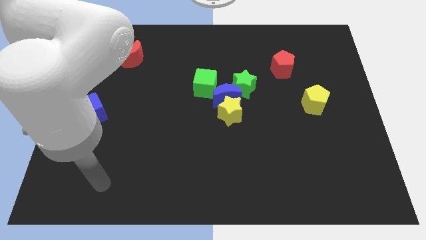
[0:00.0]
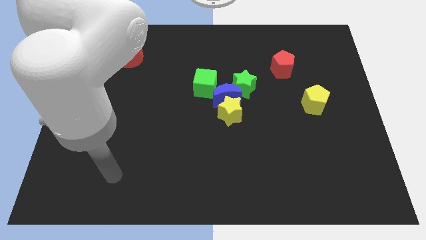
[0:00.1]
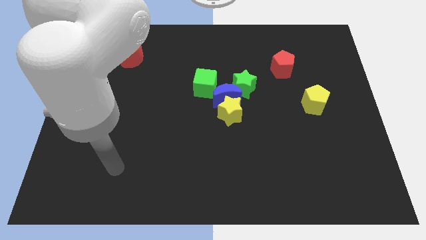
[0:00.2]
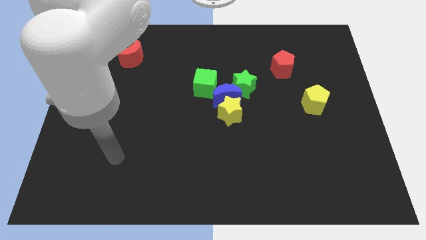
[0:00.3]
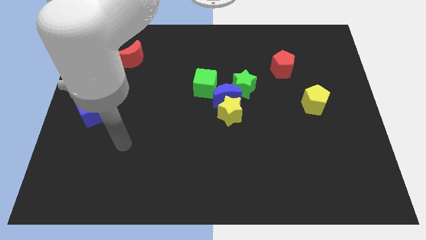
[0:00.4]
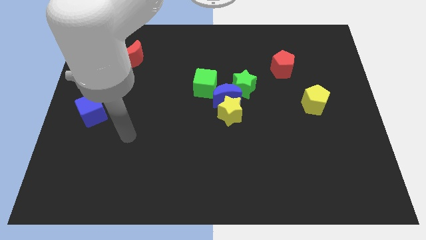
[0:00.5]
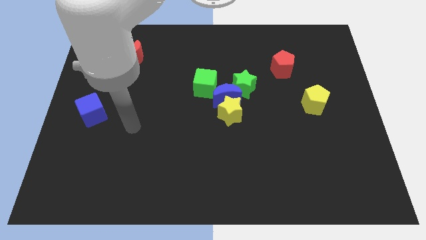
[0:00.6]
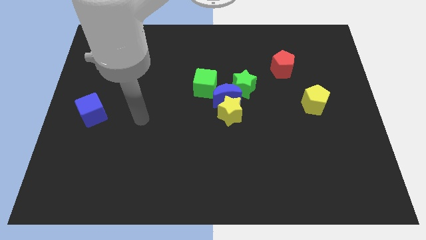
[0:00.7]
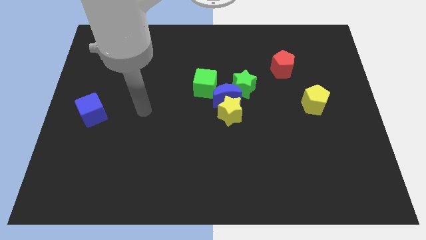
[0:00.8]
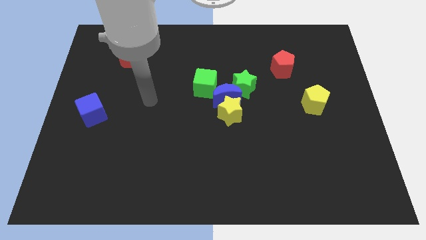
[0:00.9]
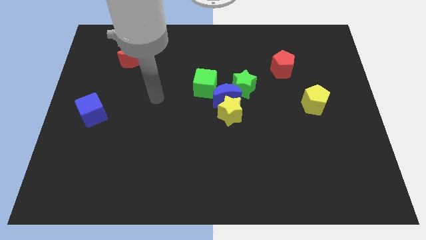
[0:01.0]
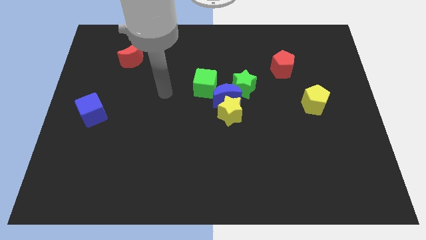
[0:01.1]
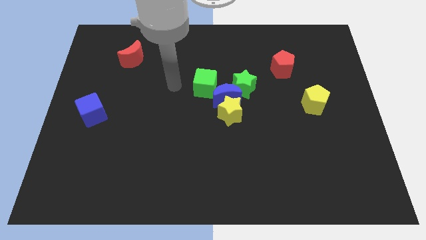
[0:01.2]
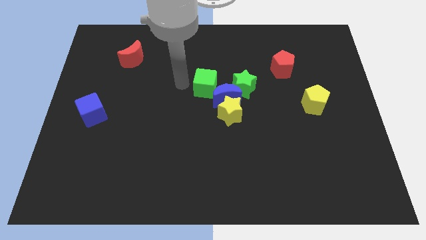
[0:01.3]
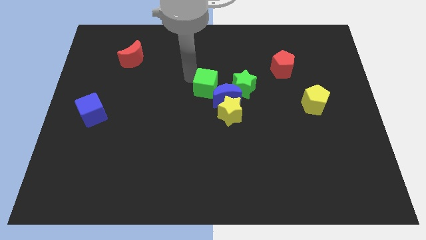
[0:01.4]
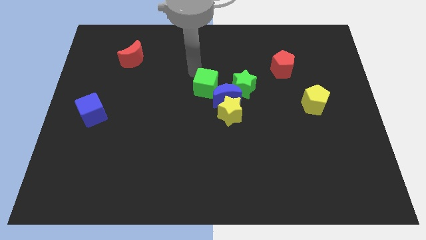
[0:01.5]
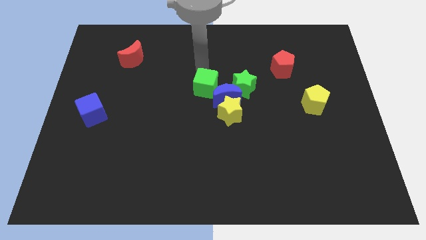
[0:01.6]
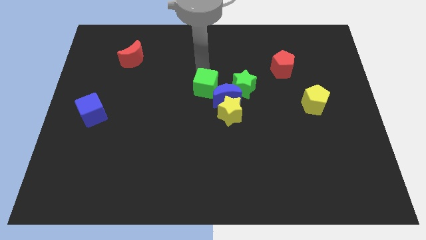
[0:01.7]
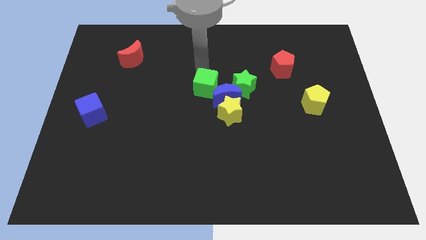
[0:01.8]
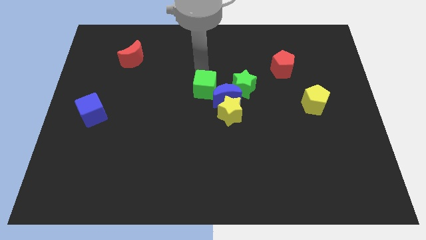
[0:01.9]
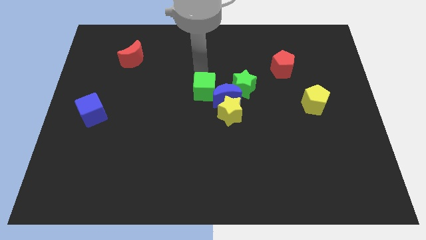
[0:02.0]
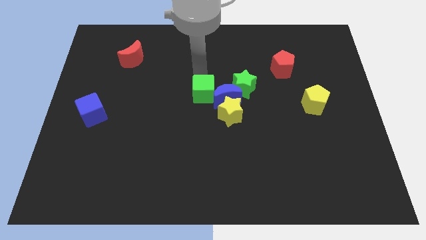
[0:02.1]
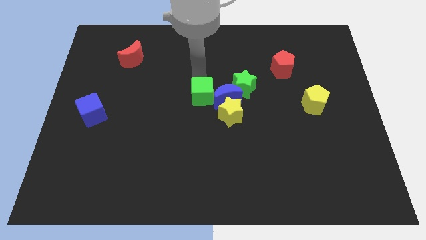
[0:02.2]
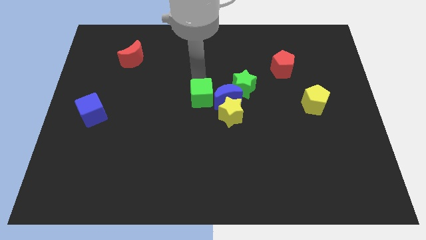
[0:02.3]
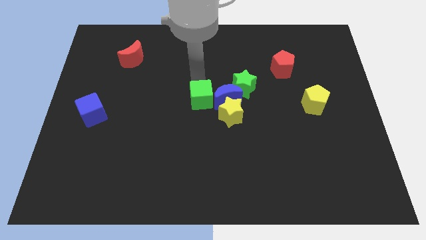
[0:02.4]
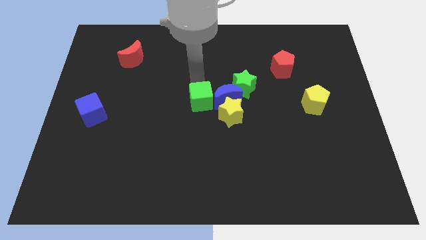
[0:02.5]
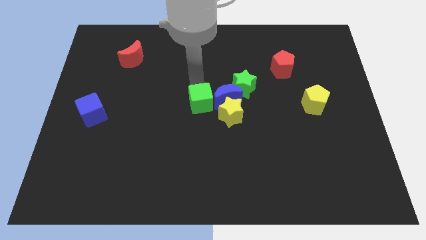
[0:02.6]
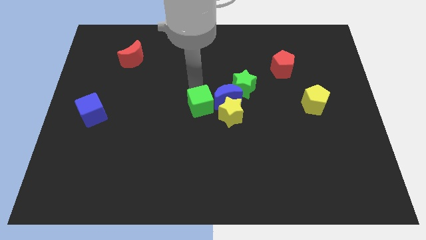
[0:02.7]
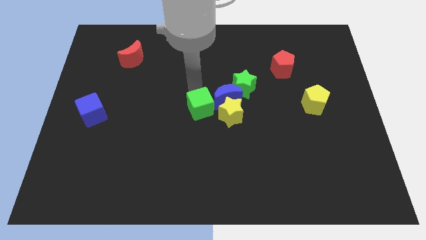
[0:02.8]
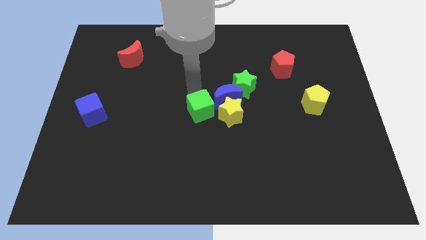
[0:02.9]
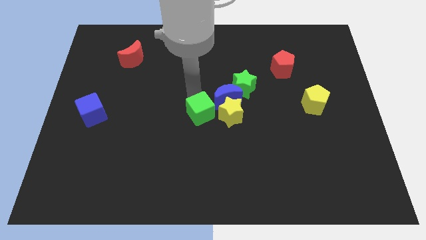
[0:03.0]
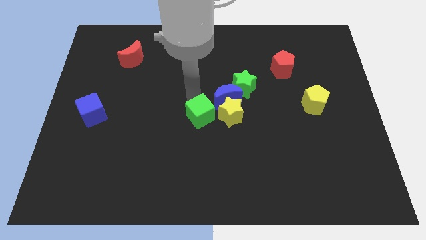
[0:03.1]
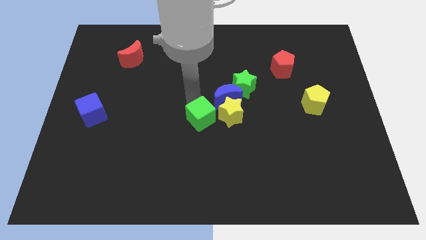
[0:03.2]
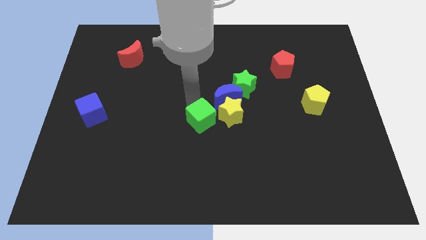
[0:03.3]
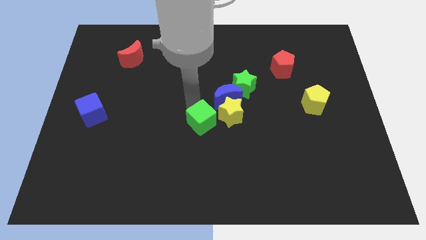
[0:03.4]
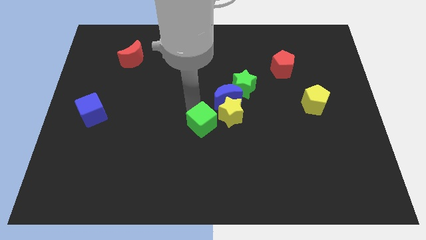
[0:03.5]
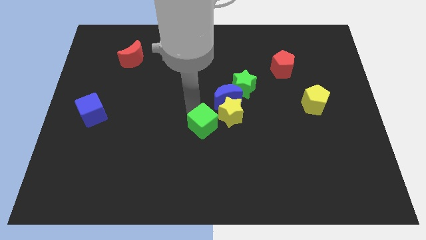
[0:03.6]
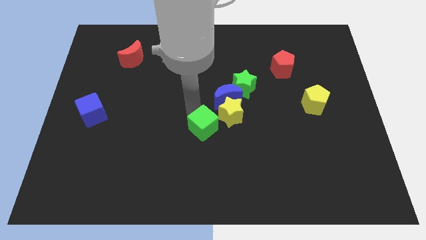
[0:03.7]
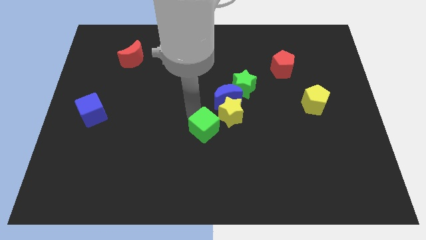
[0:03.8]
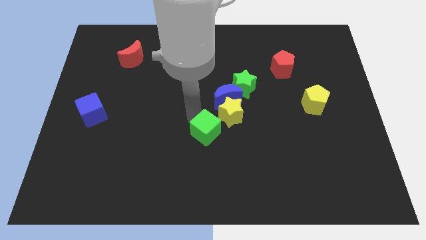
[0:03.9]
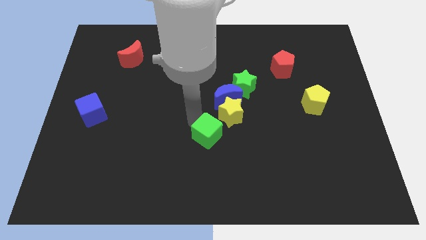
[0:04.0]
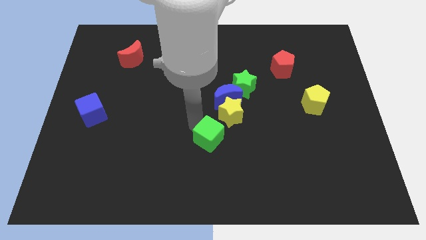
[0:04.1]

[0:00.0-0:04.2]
slightly slide the green cube downwards and right

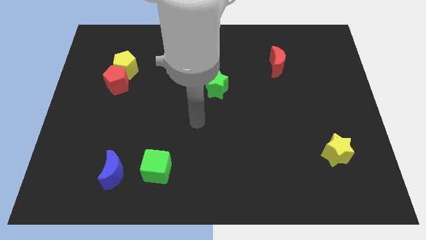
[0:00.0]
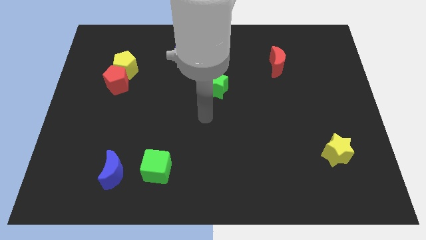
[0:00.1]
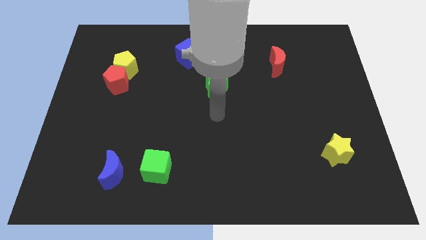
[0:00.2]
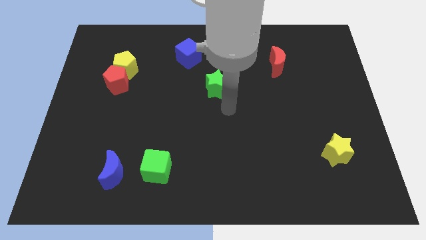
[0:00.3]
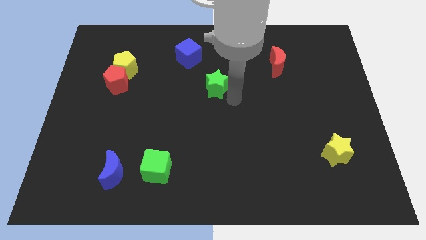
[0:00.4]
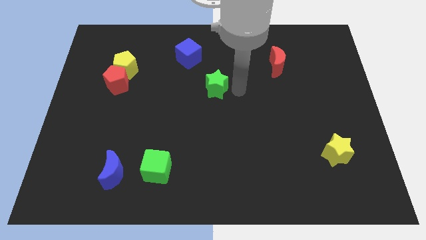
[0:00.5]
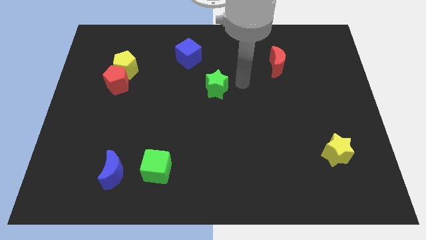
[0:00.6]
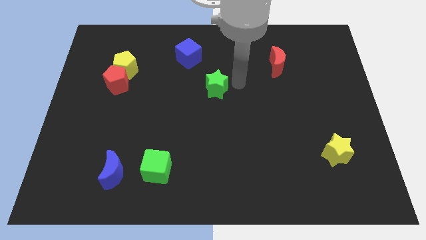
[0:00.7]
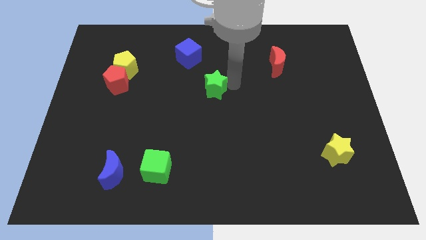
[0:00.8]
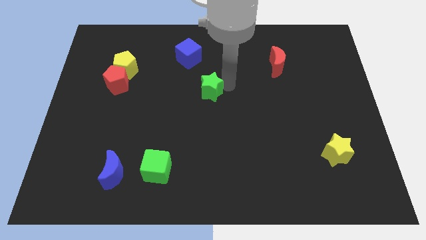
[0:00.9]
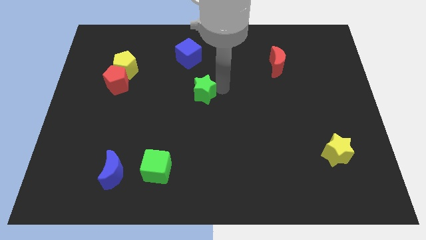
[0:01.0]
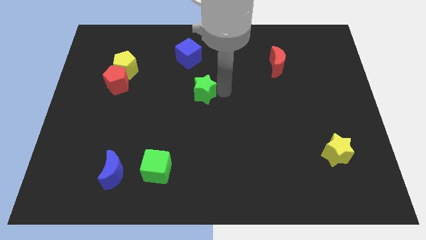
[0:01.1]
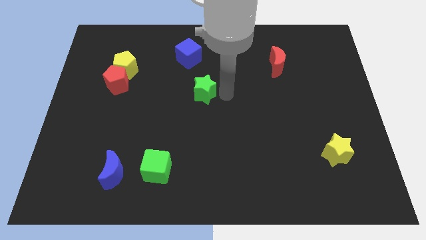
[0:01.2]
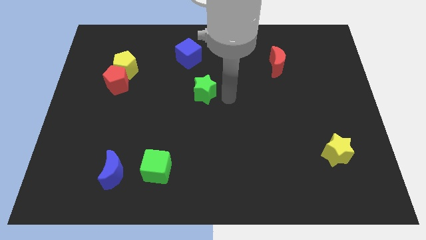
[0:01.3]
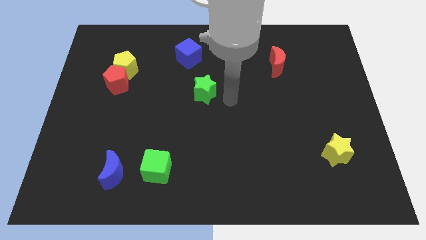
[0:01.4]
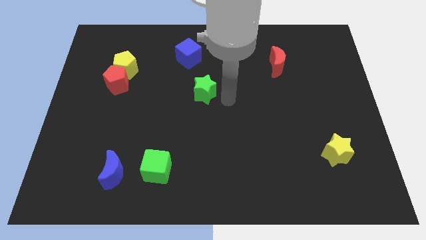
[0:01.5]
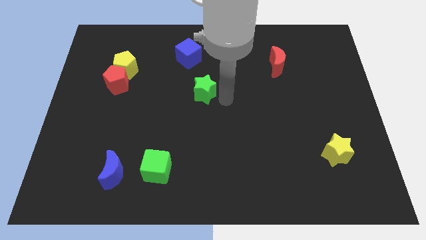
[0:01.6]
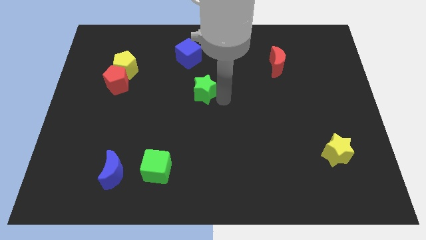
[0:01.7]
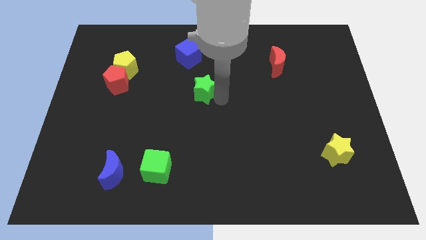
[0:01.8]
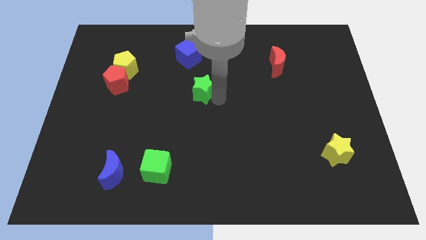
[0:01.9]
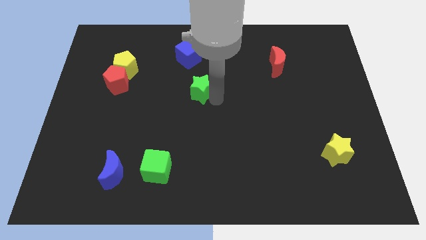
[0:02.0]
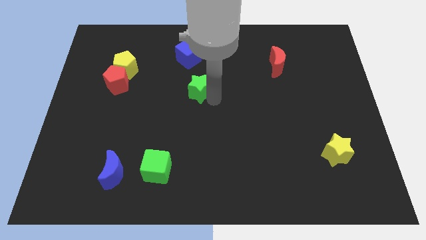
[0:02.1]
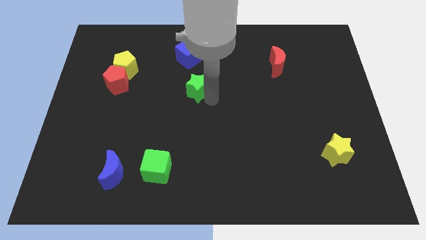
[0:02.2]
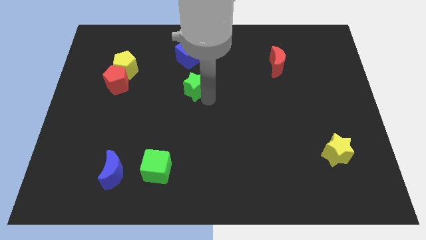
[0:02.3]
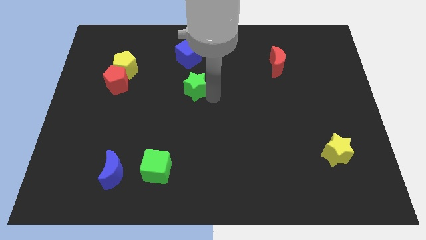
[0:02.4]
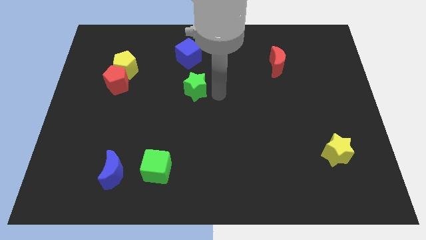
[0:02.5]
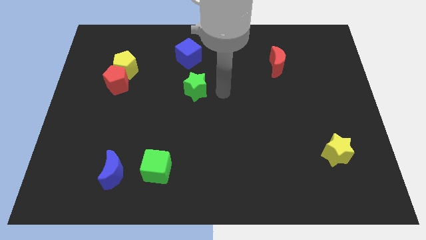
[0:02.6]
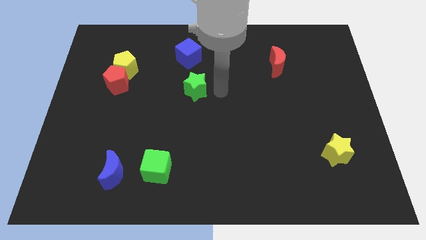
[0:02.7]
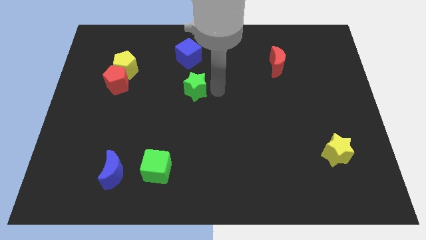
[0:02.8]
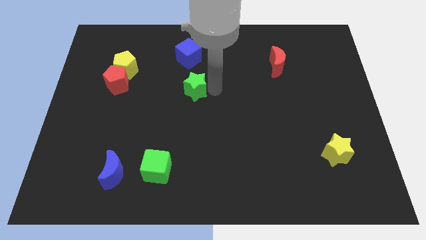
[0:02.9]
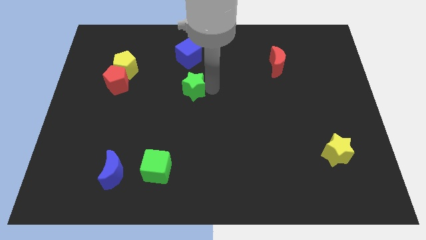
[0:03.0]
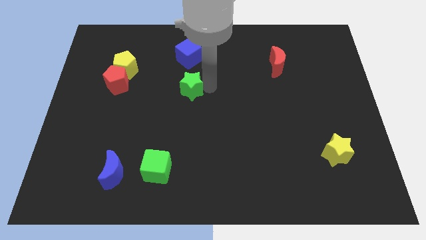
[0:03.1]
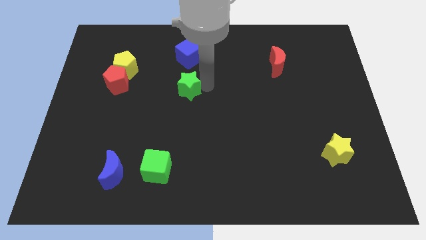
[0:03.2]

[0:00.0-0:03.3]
slightly slide the green star to the left

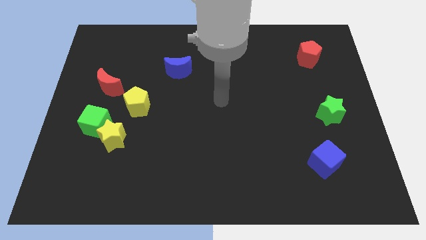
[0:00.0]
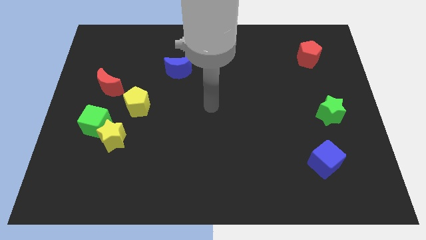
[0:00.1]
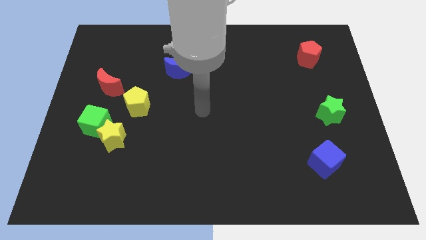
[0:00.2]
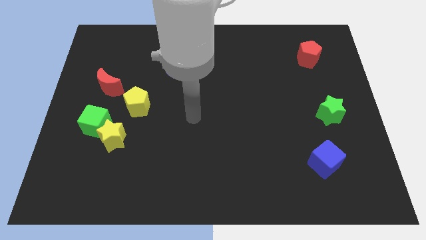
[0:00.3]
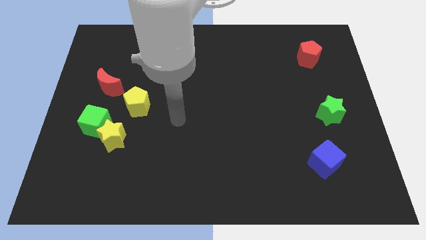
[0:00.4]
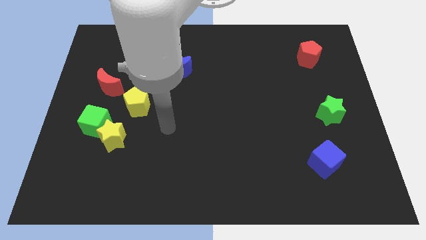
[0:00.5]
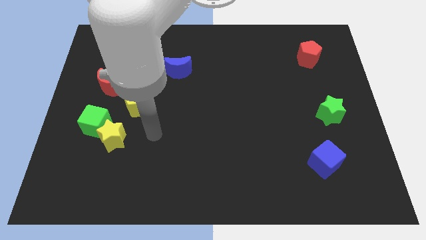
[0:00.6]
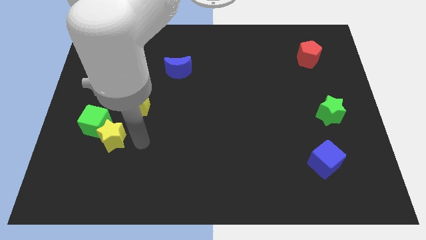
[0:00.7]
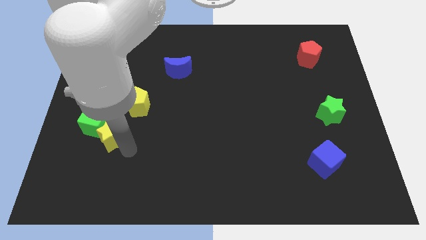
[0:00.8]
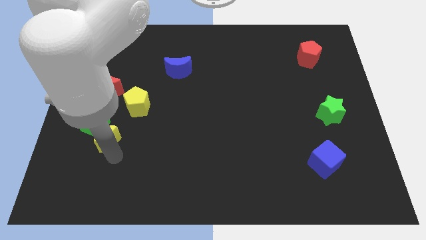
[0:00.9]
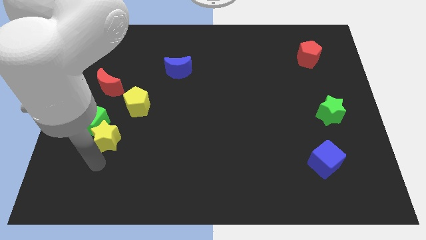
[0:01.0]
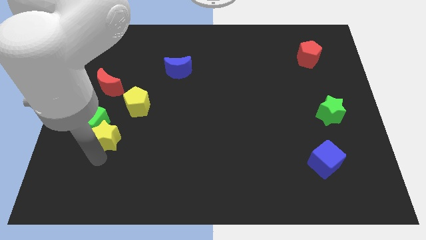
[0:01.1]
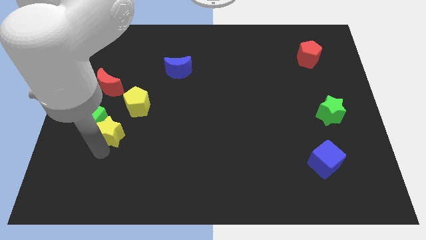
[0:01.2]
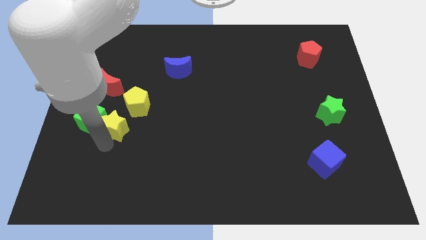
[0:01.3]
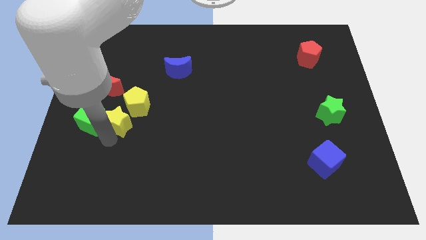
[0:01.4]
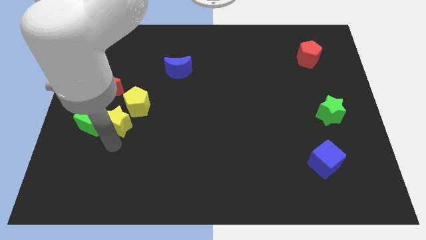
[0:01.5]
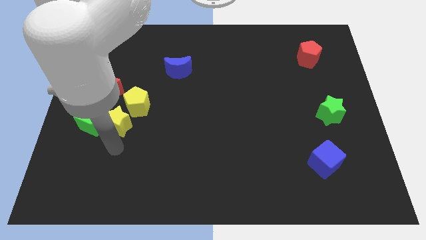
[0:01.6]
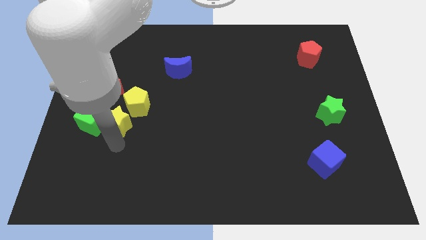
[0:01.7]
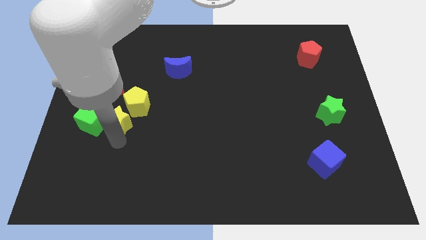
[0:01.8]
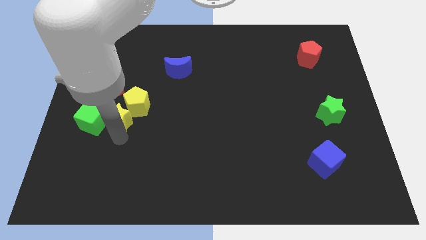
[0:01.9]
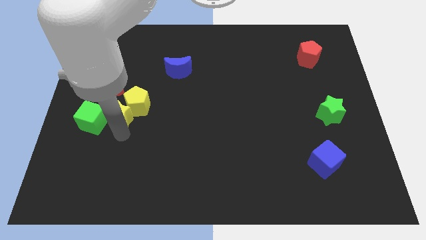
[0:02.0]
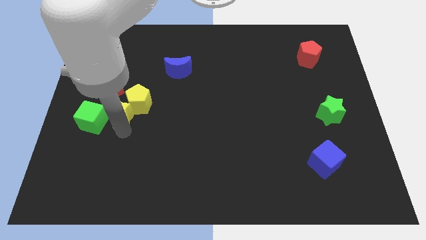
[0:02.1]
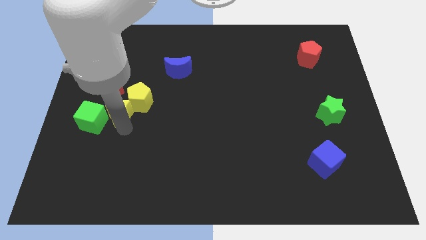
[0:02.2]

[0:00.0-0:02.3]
push the yellow star slightly up
